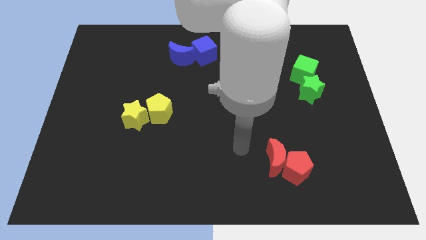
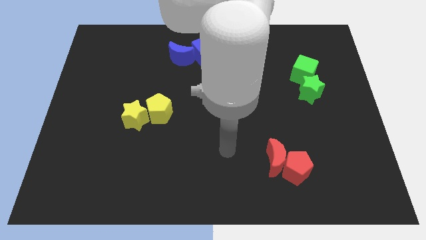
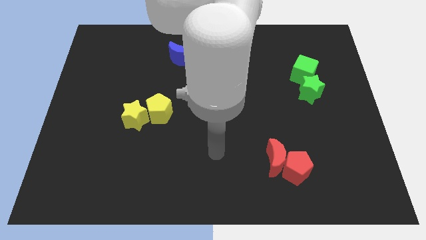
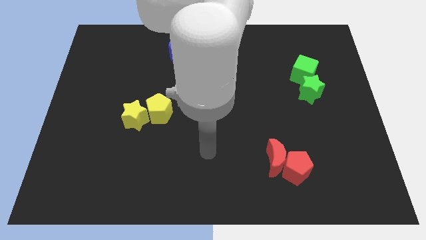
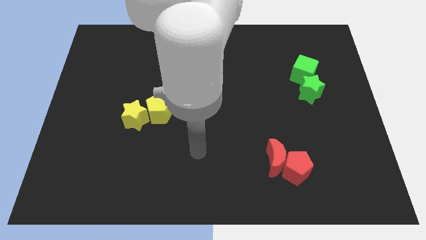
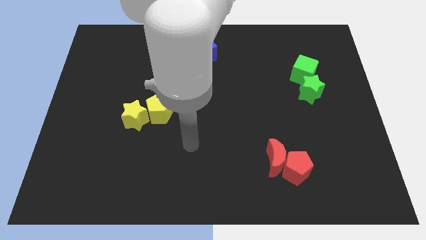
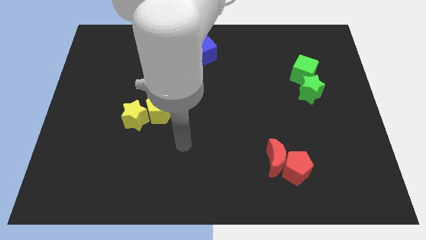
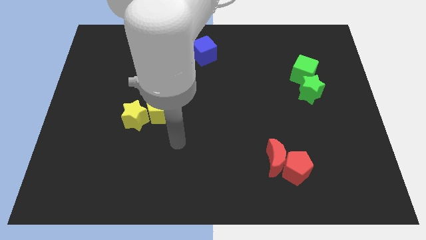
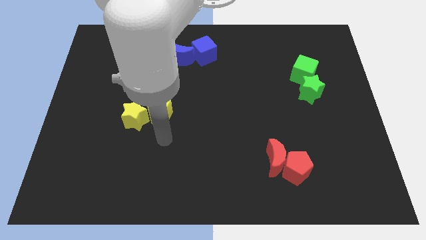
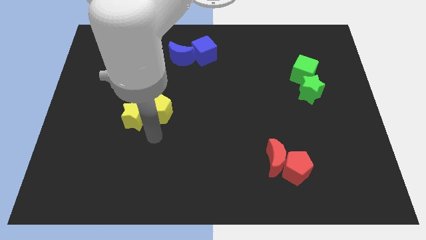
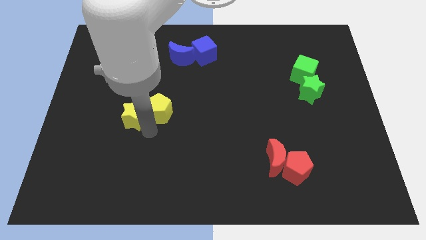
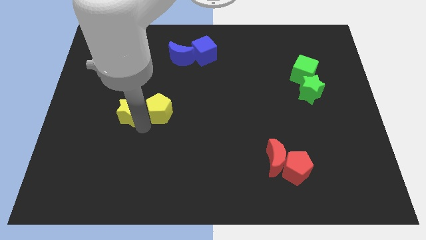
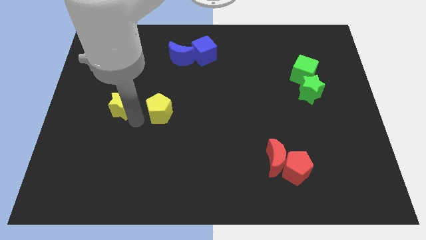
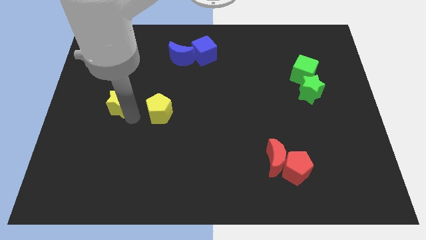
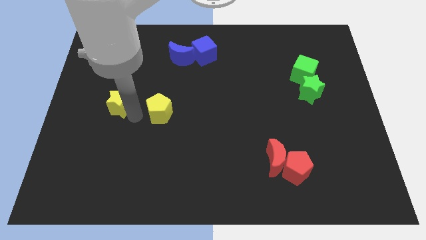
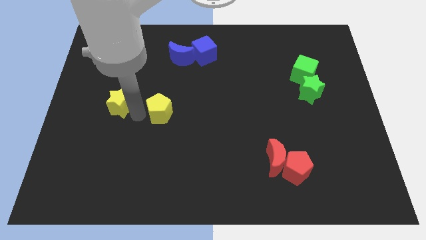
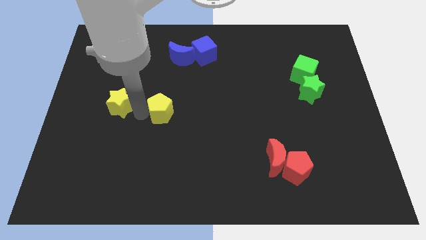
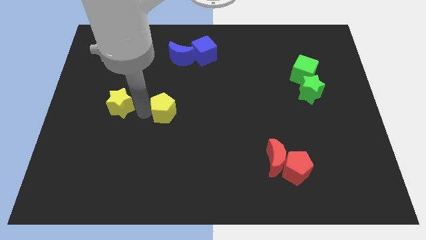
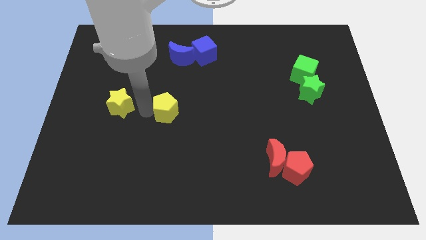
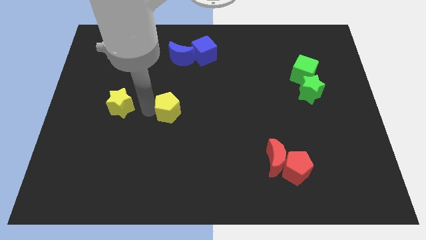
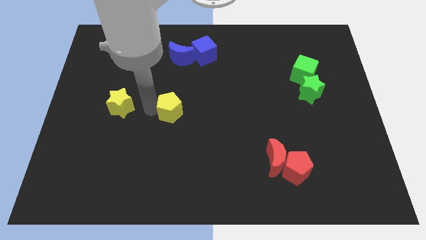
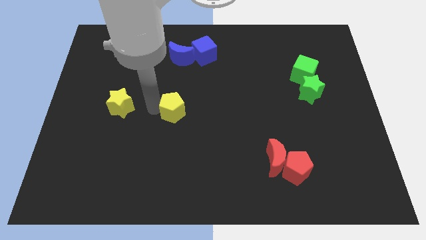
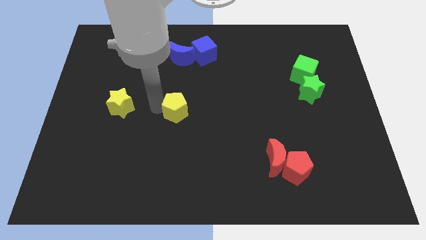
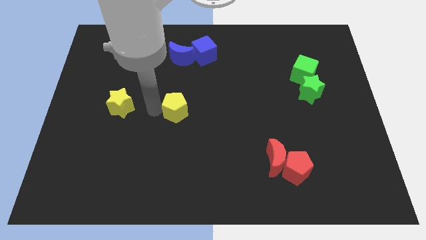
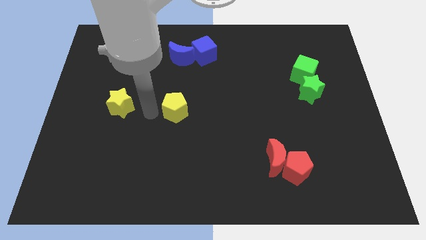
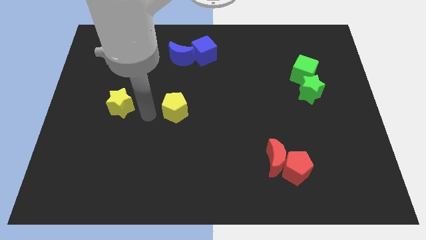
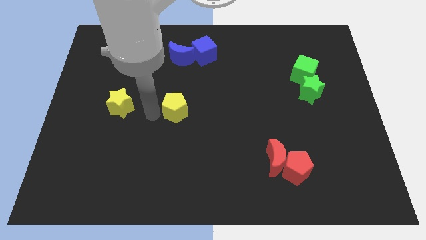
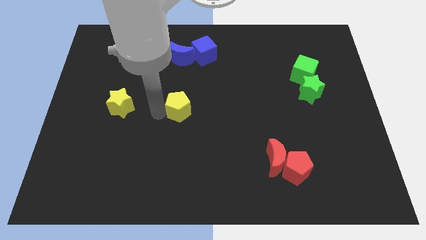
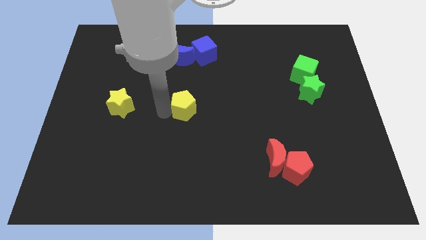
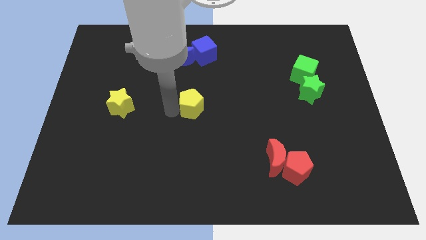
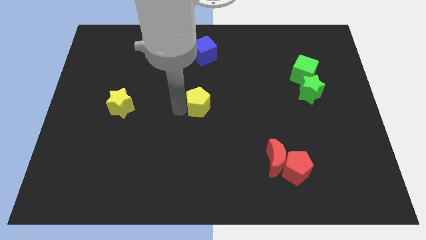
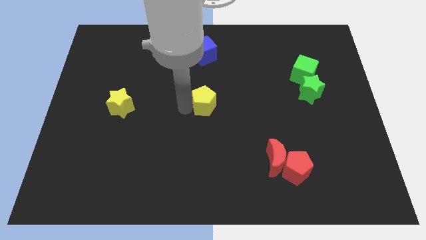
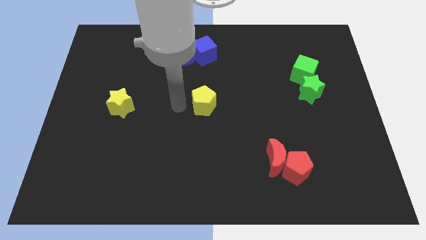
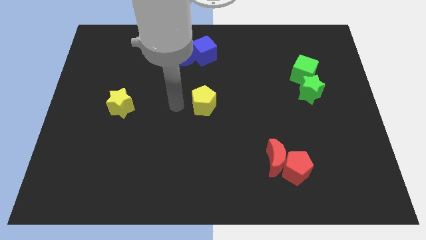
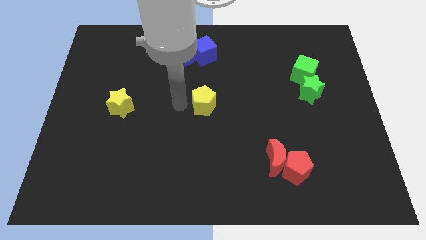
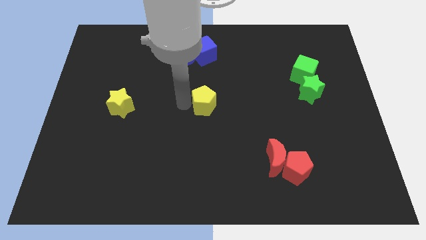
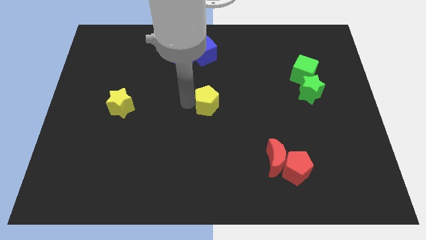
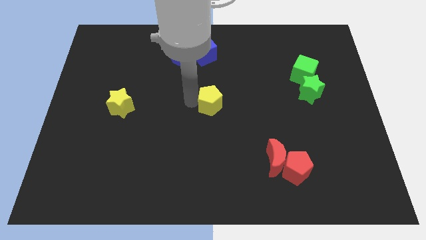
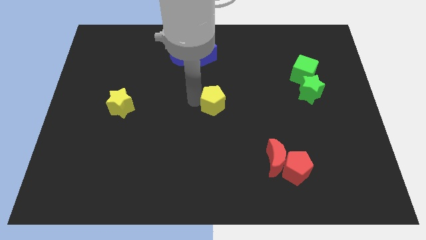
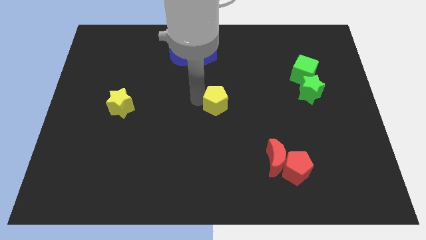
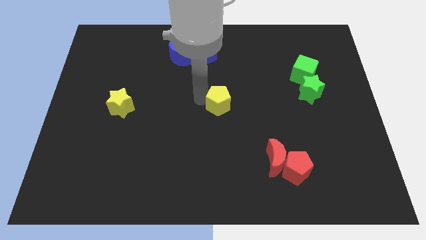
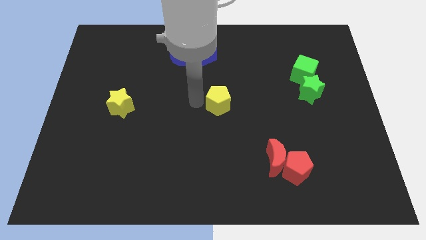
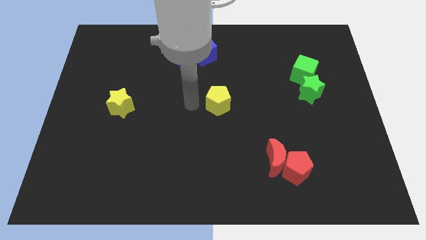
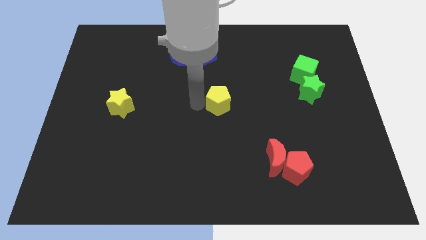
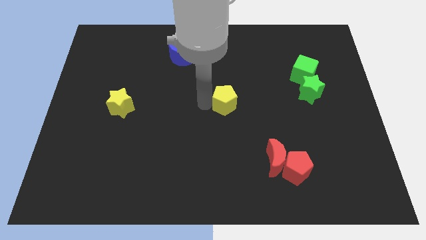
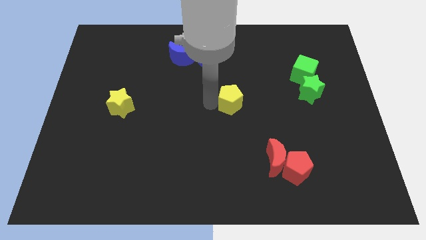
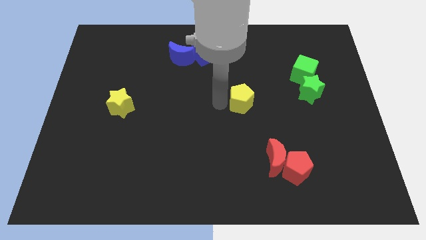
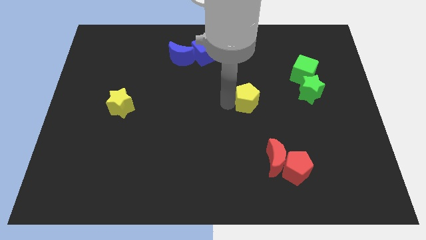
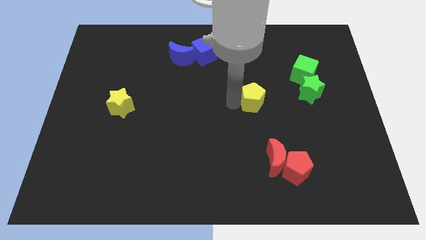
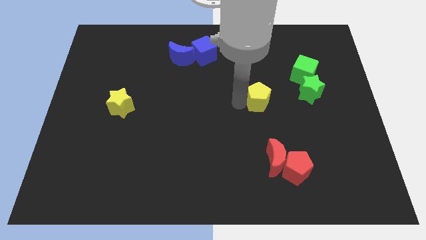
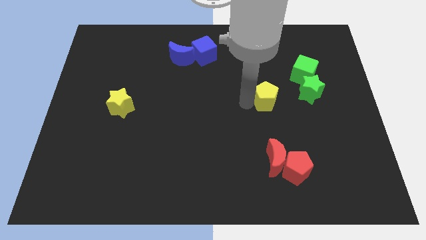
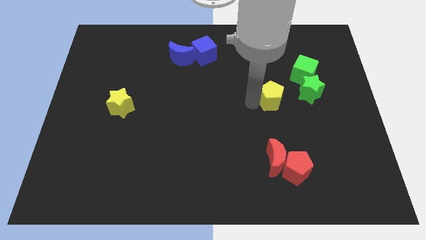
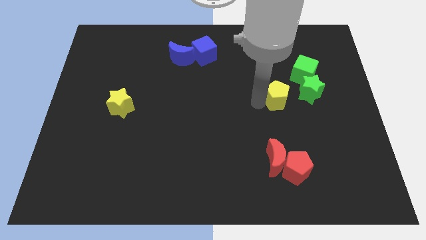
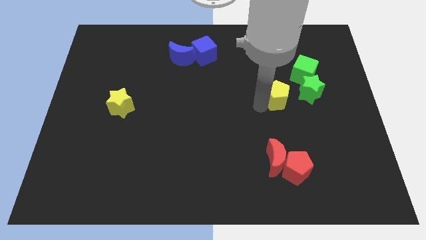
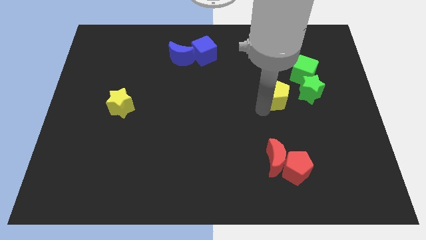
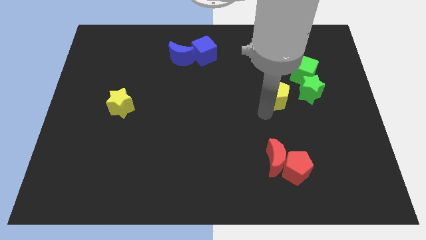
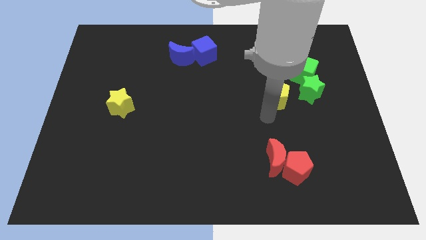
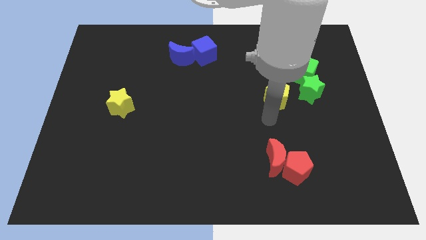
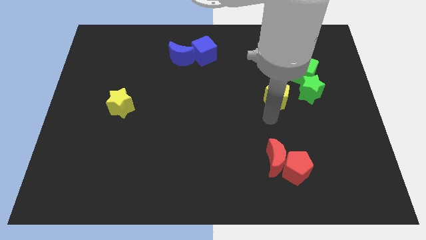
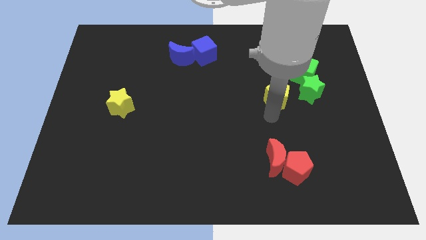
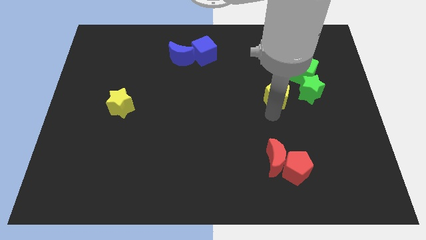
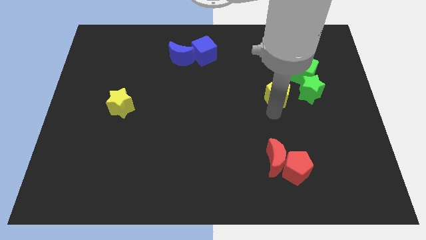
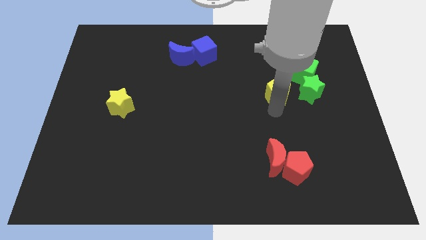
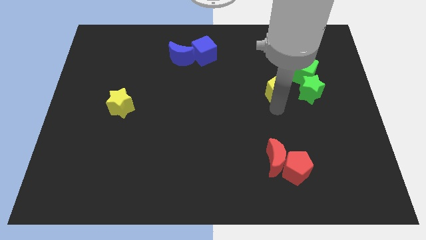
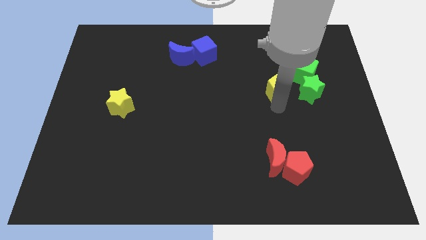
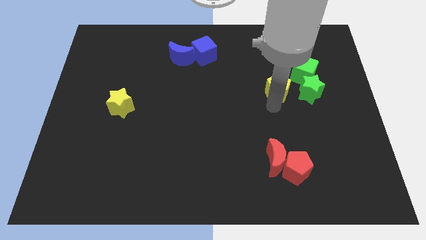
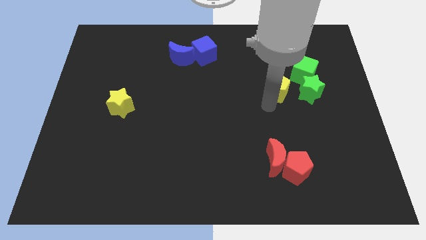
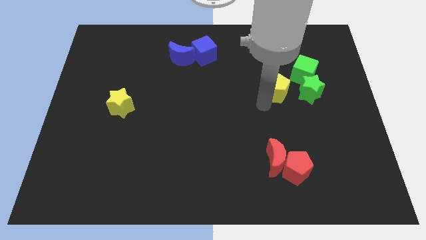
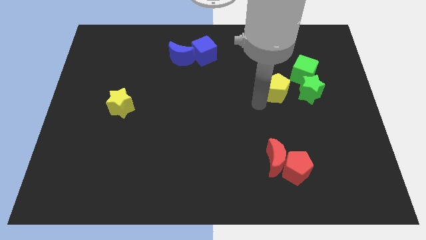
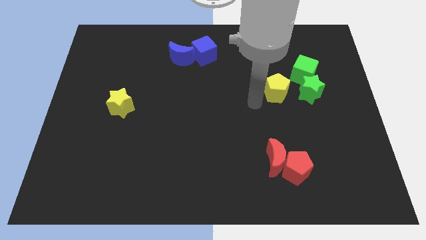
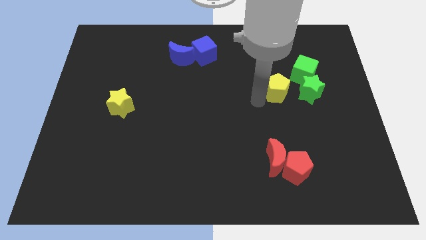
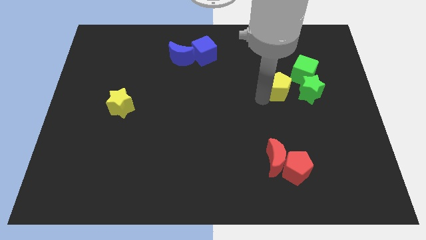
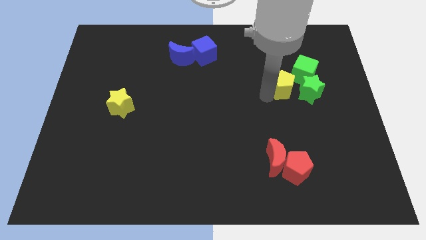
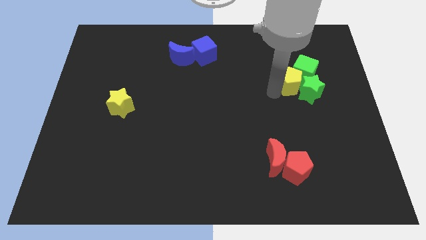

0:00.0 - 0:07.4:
slide the yellow pentagon next to the green cube

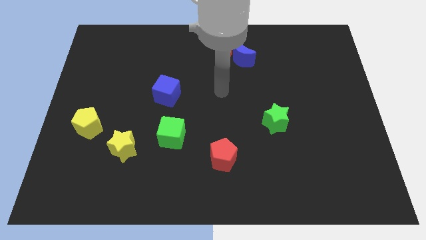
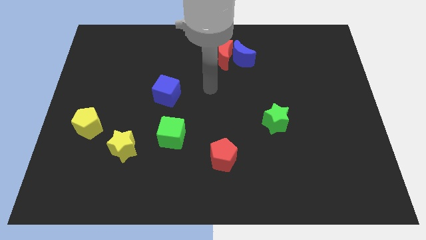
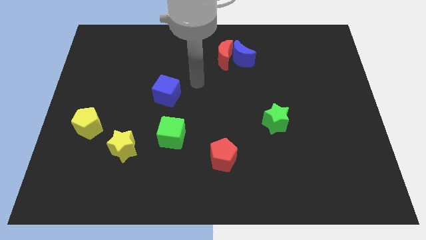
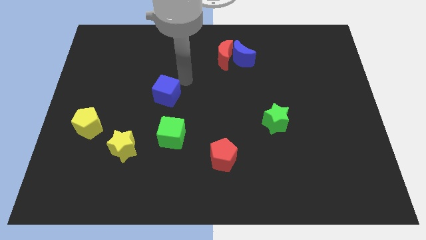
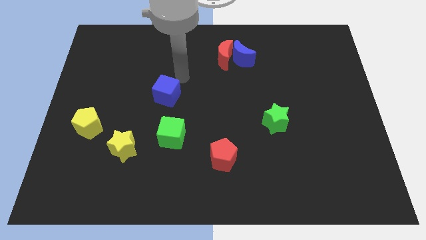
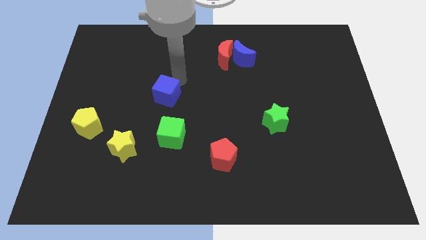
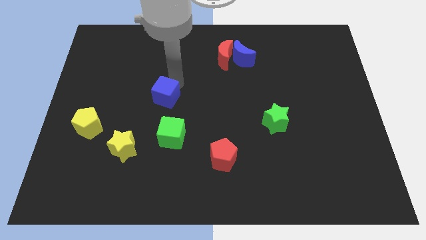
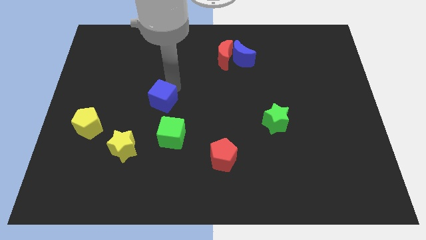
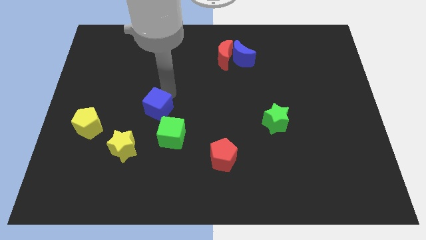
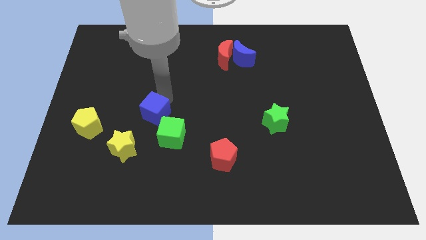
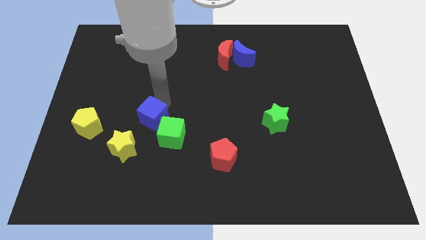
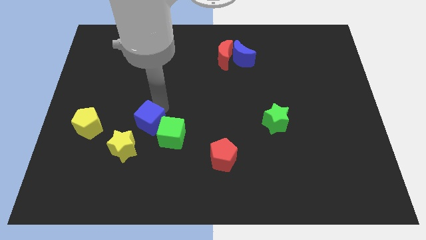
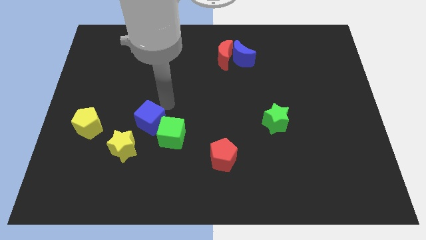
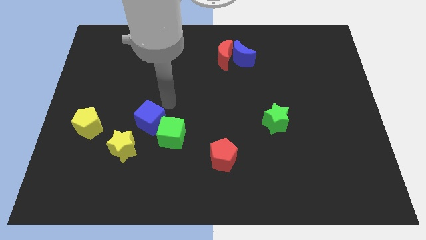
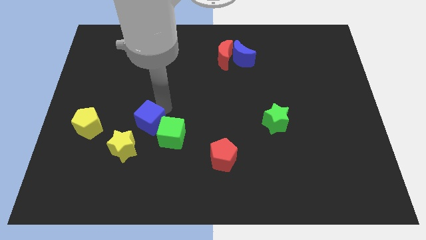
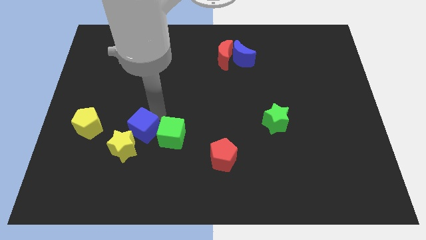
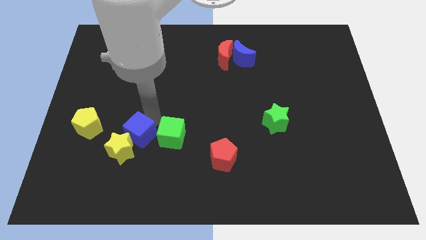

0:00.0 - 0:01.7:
slide the blue cube to the yellow star
